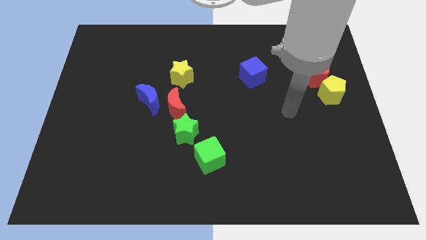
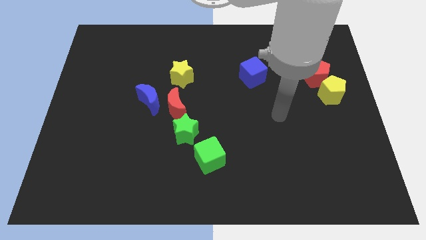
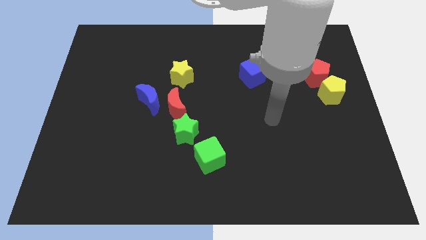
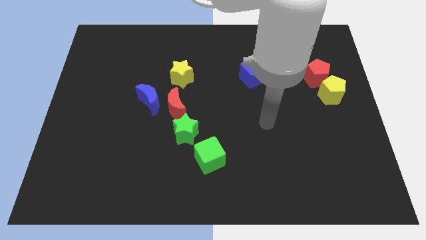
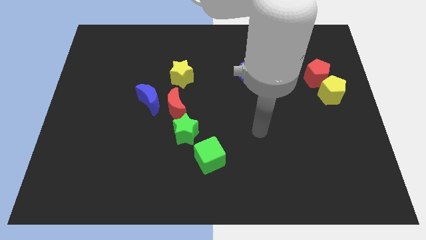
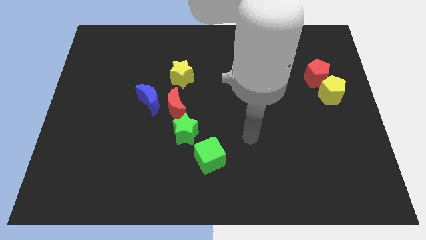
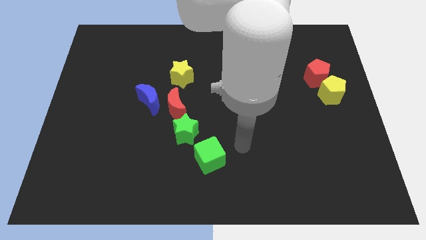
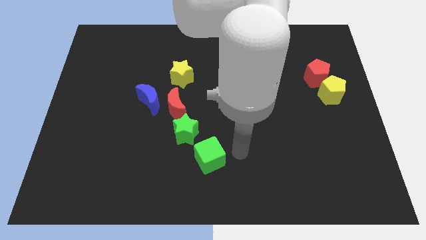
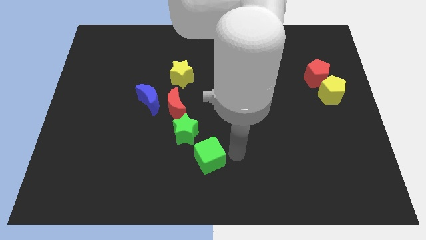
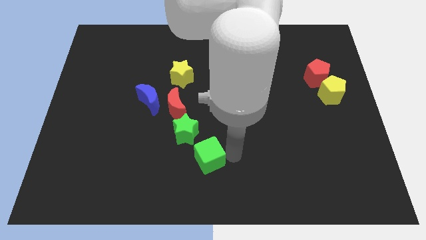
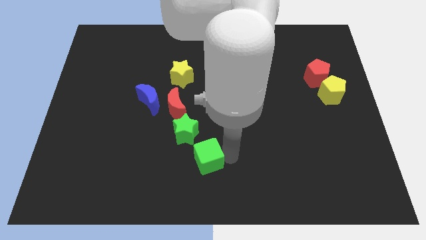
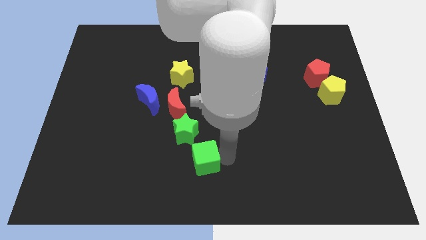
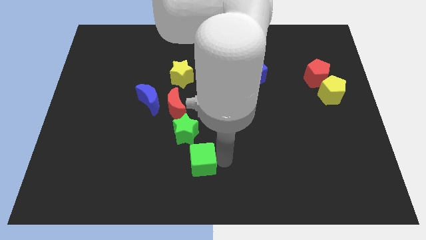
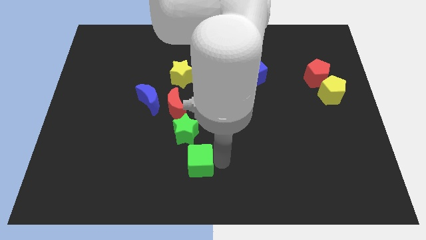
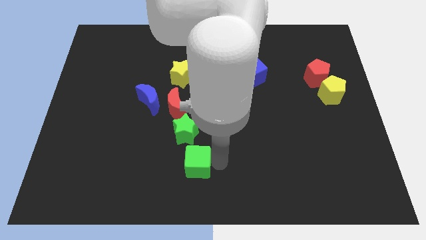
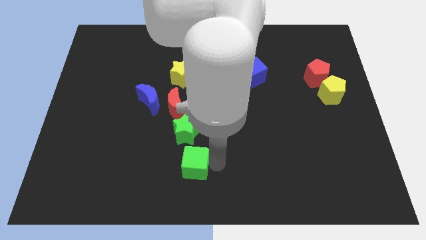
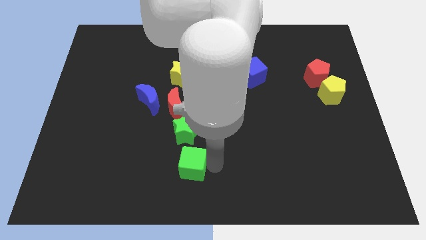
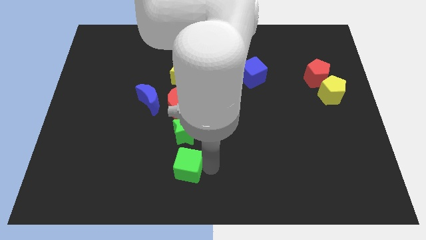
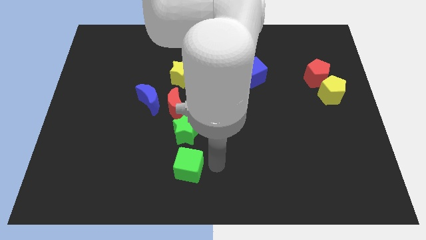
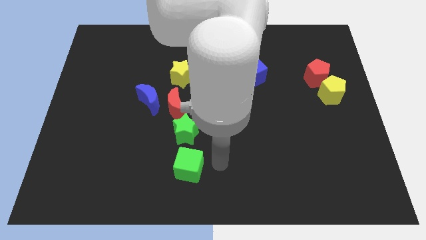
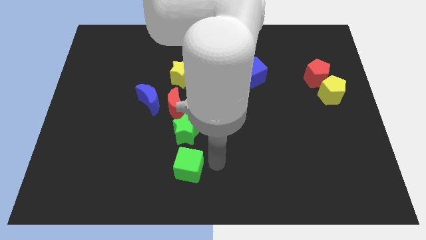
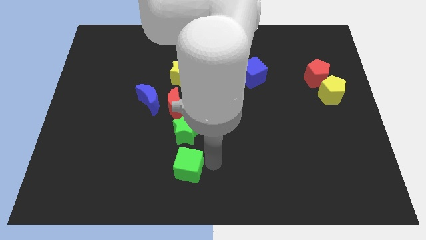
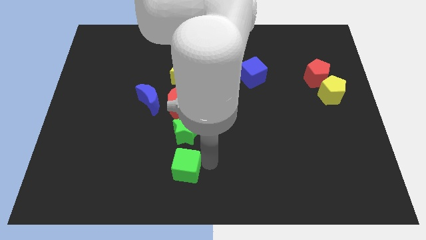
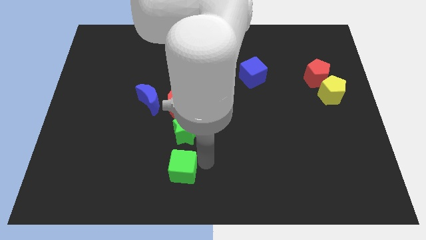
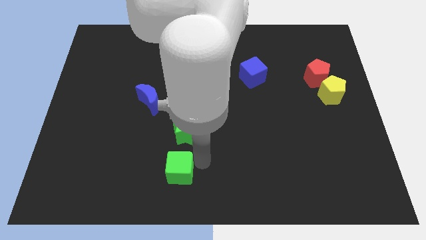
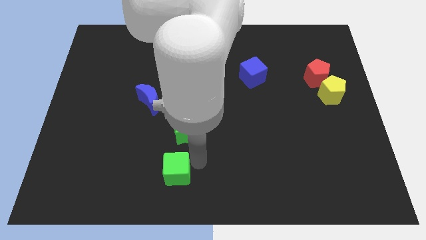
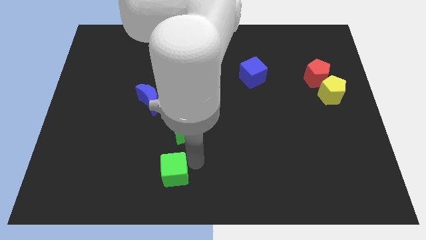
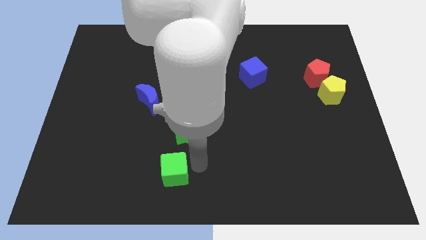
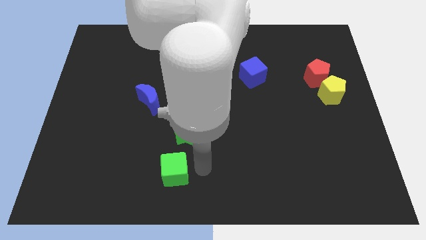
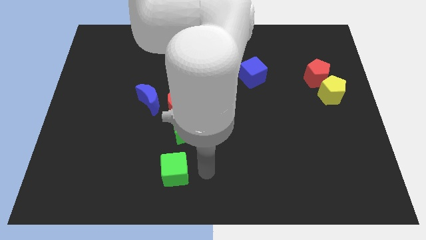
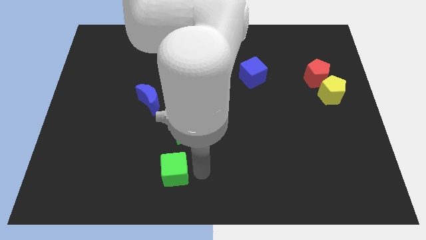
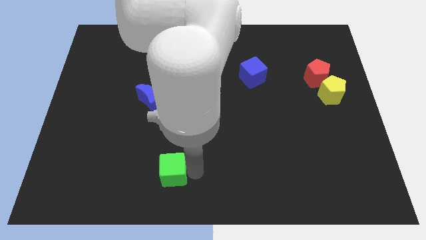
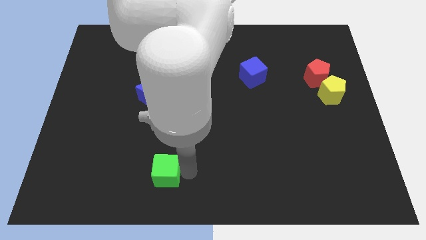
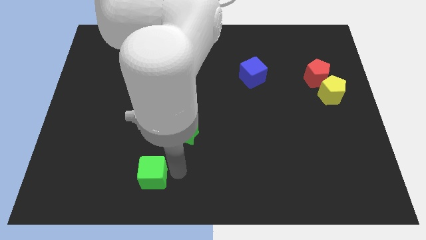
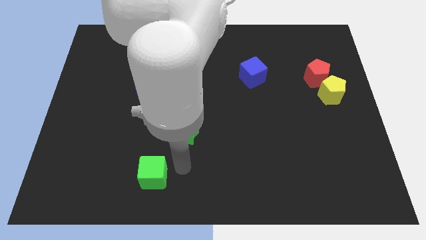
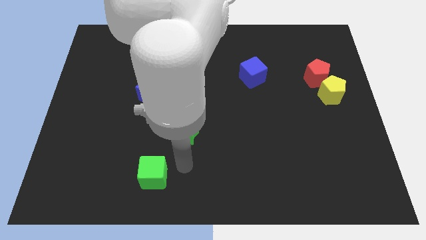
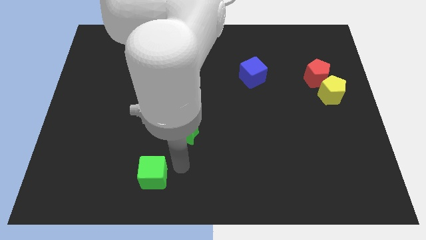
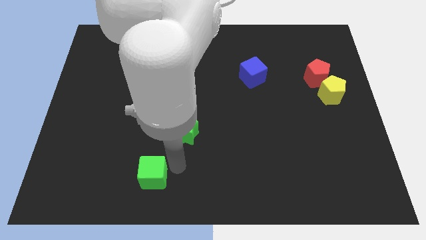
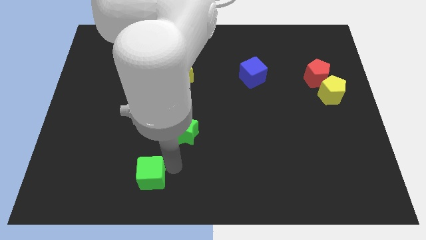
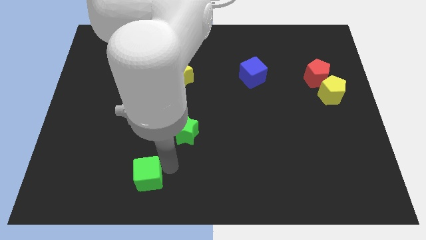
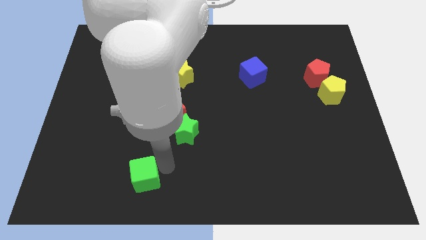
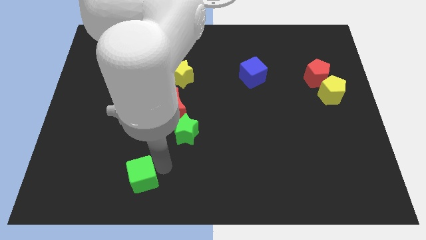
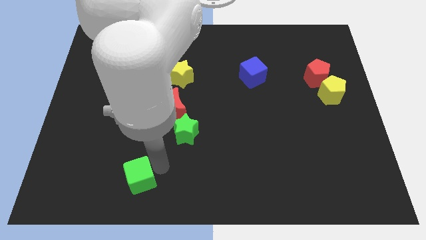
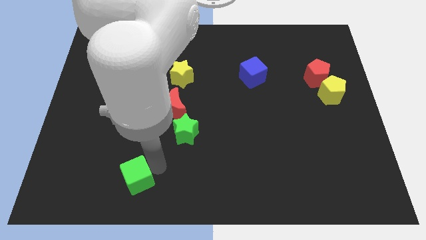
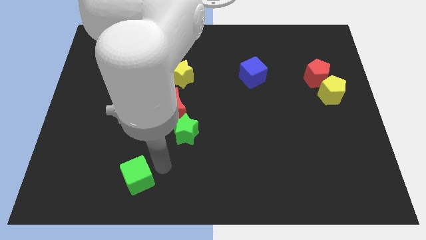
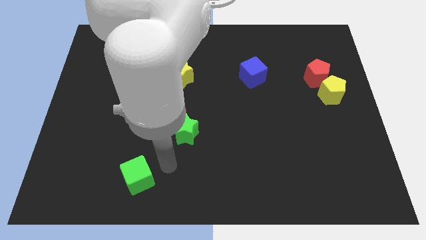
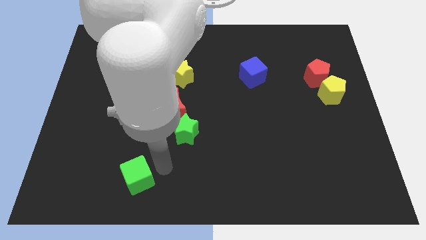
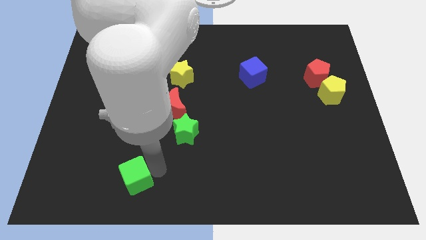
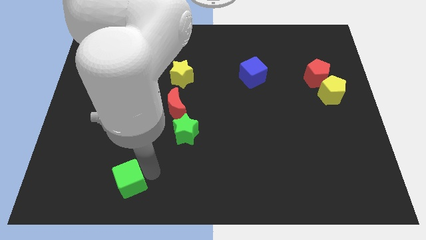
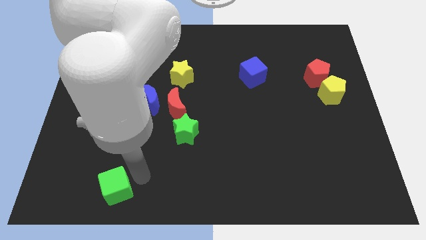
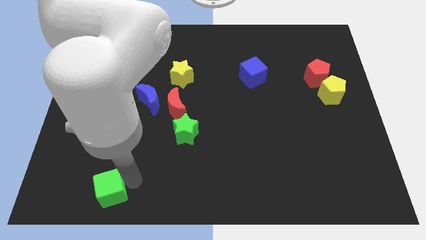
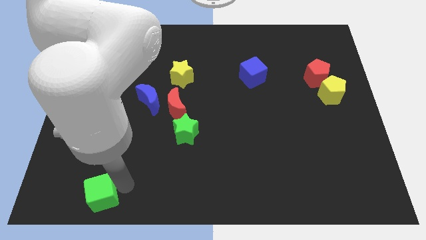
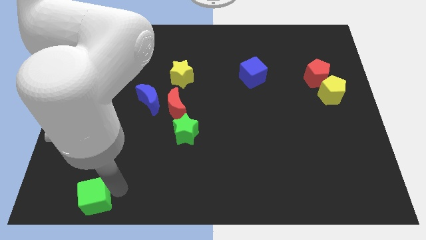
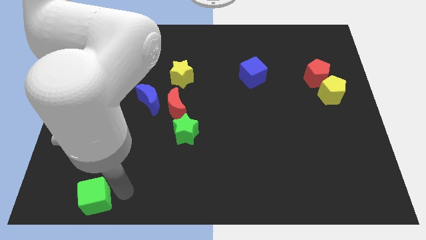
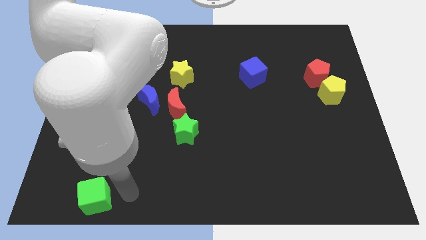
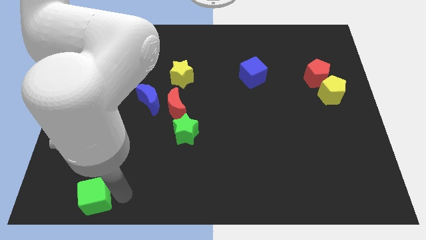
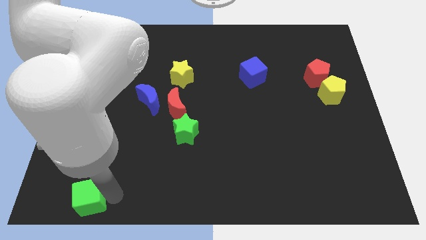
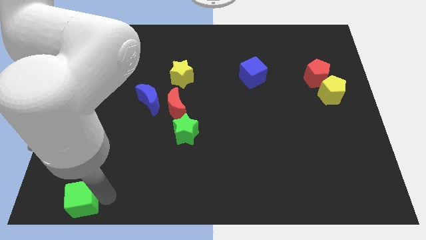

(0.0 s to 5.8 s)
put the green cube to the bottom left of the board

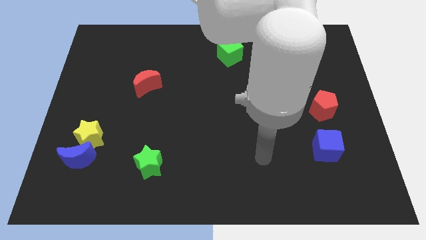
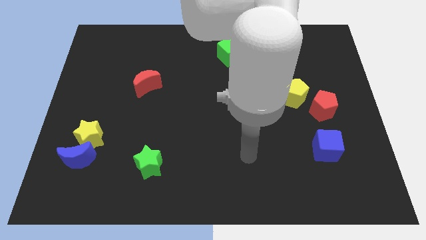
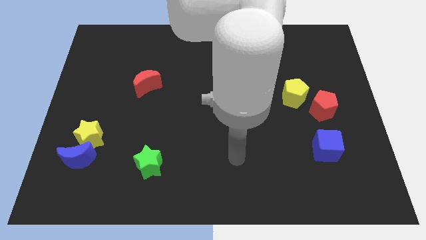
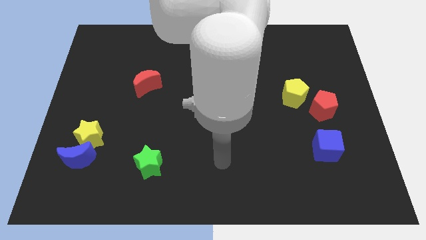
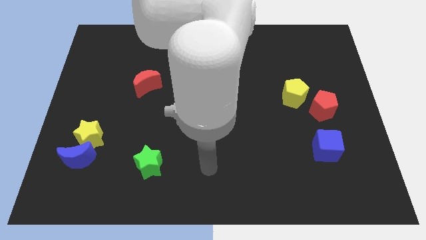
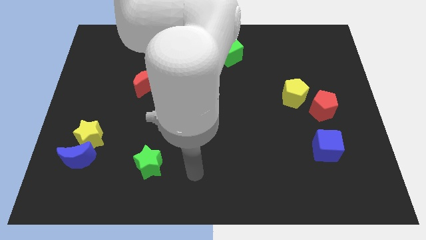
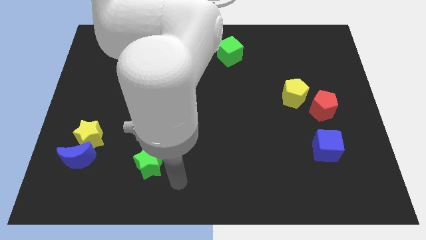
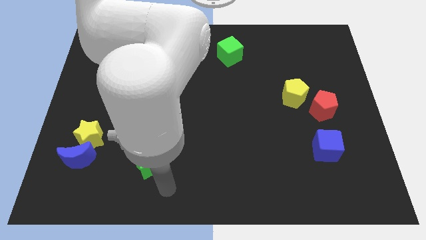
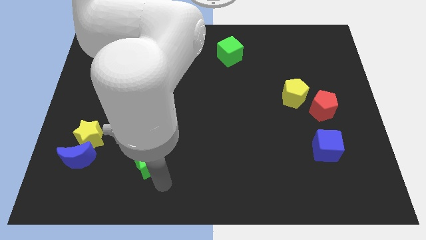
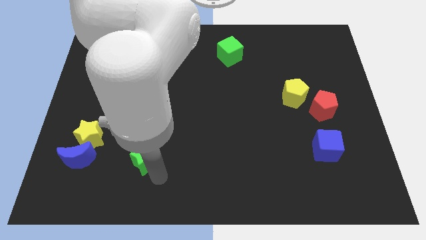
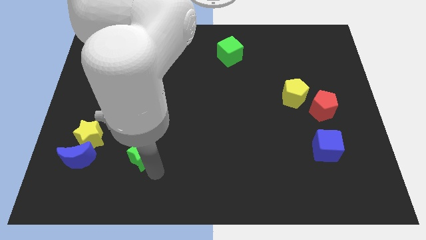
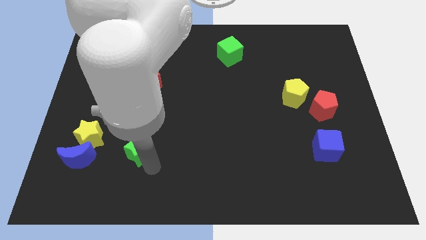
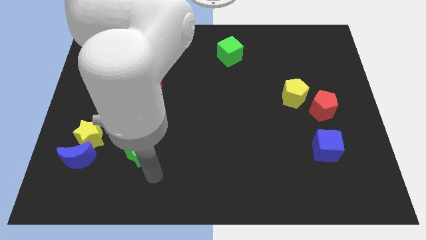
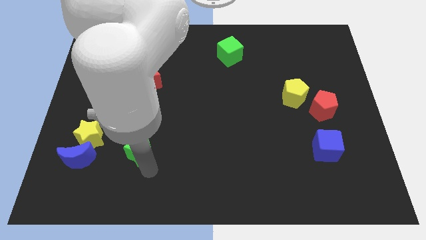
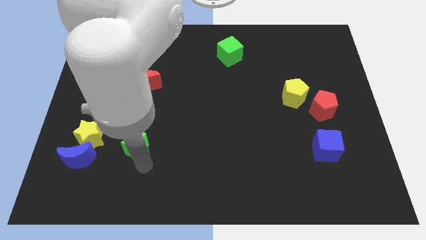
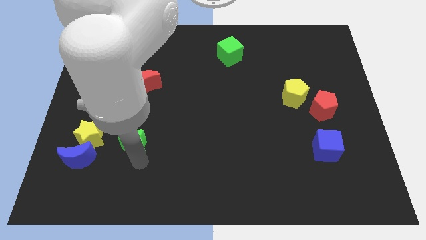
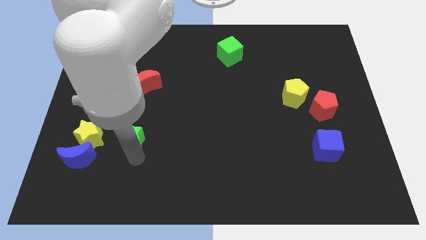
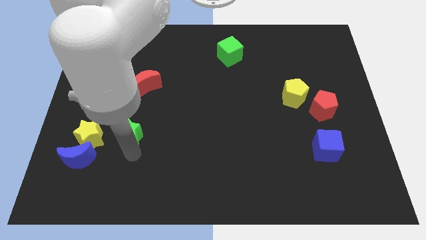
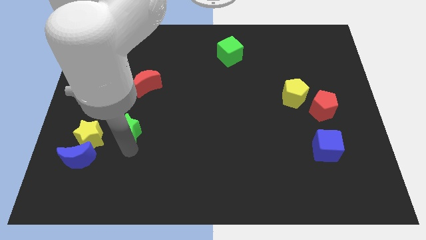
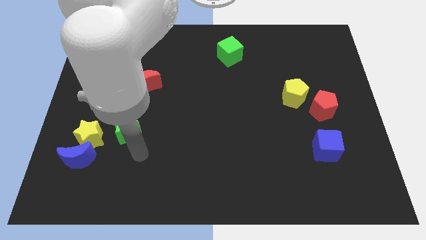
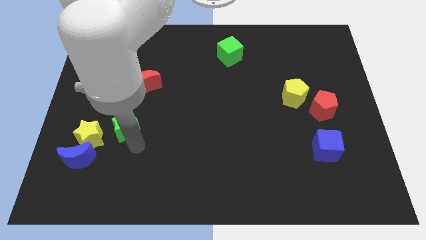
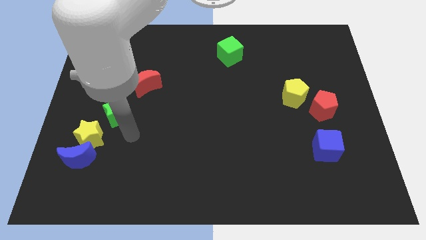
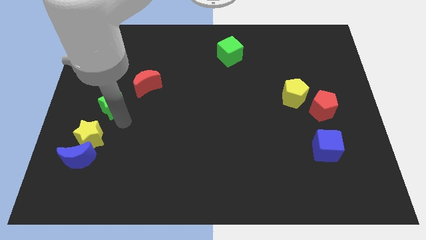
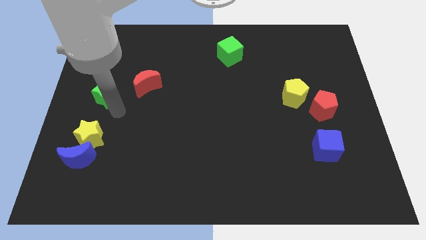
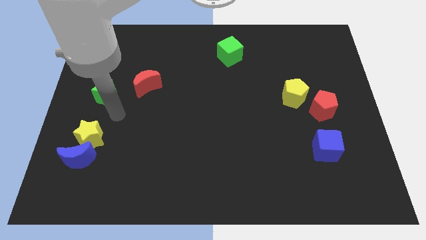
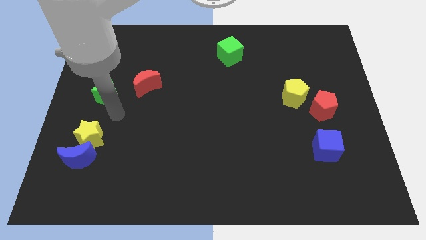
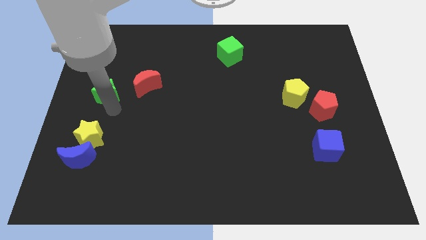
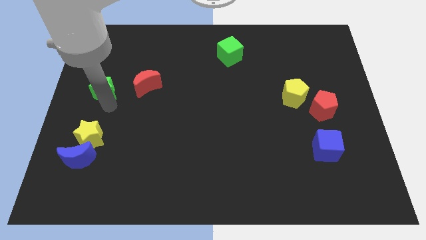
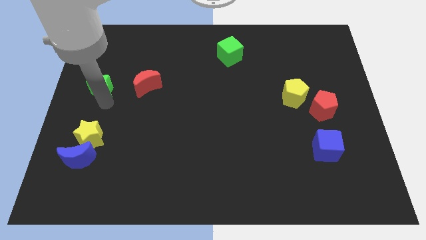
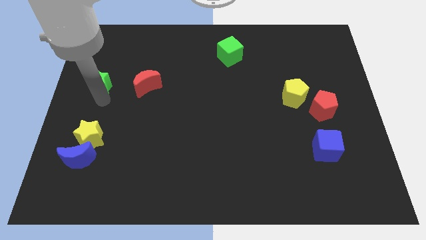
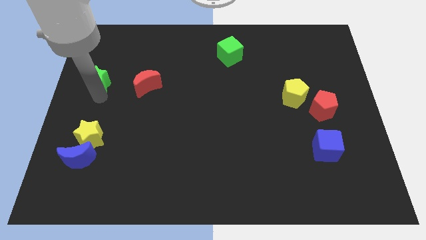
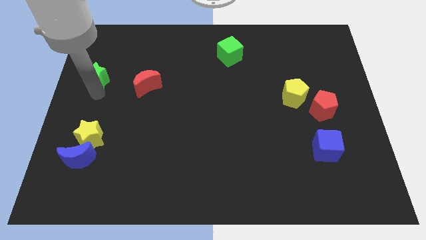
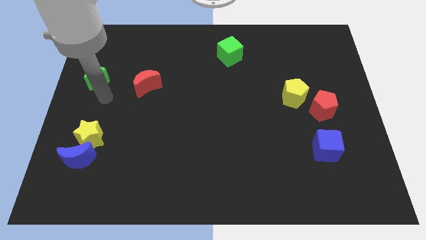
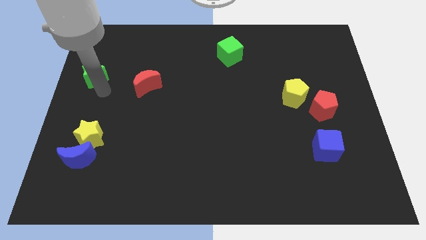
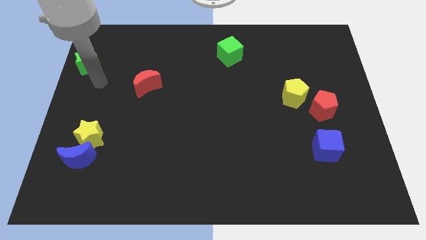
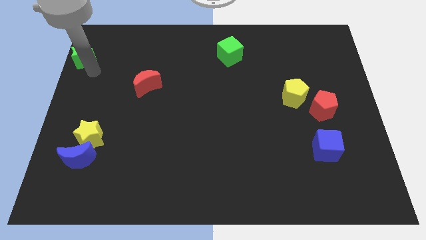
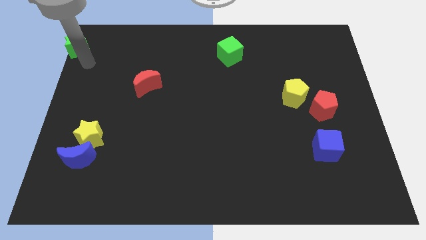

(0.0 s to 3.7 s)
move the green star to the top left of the board
